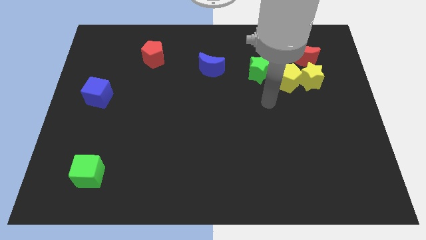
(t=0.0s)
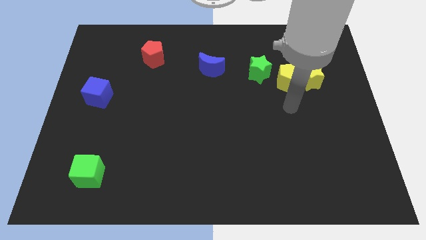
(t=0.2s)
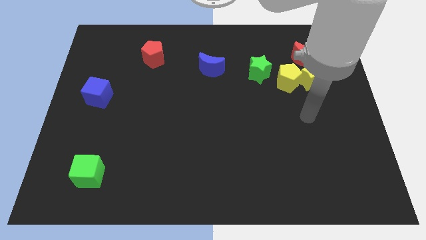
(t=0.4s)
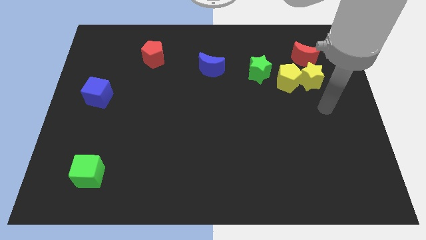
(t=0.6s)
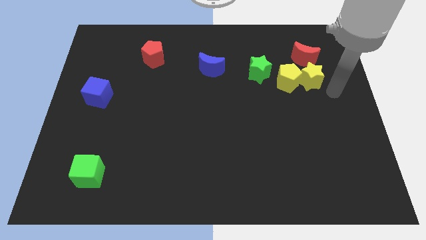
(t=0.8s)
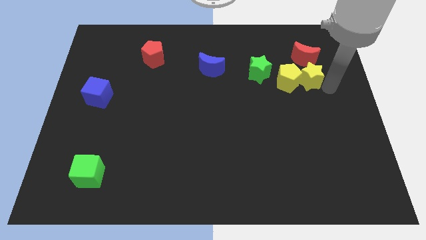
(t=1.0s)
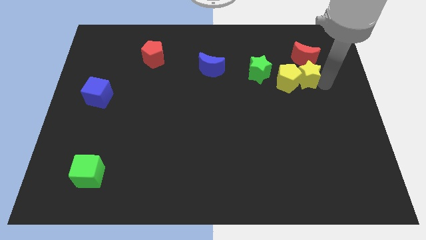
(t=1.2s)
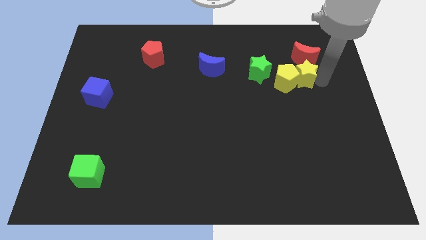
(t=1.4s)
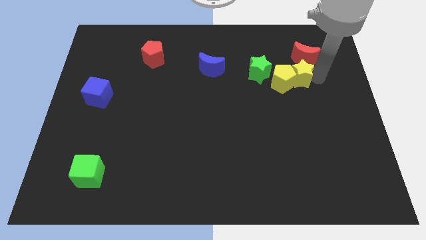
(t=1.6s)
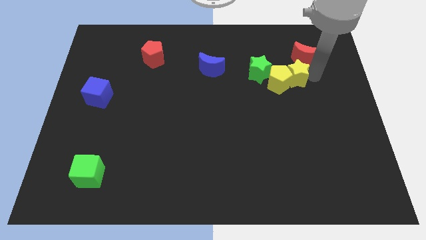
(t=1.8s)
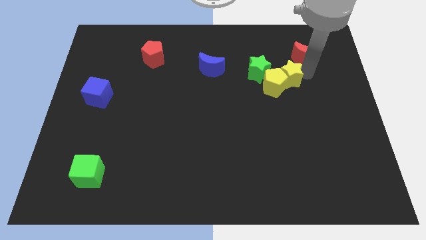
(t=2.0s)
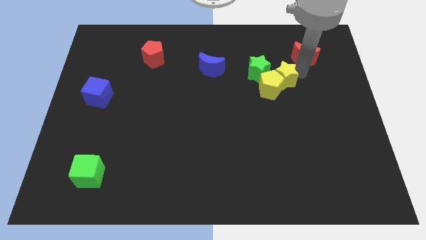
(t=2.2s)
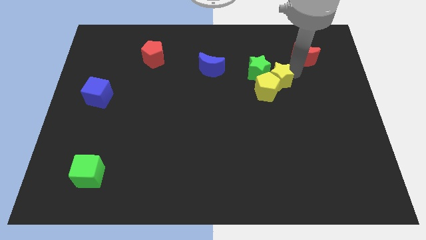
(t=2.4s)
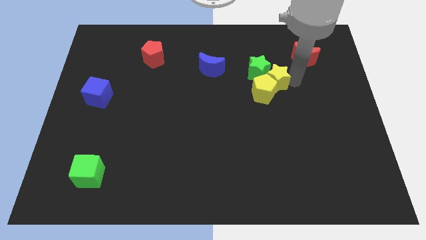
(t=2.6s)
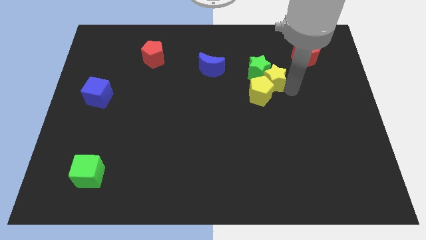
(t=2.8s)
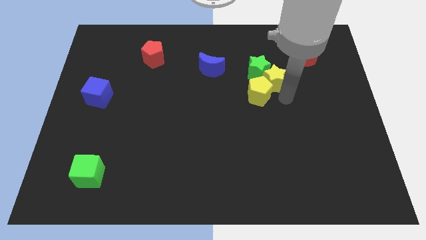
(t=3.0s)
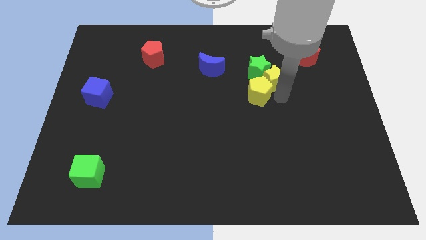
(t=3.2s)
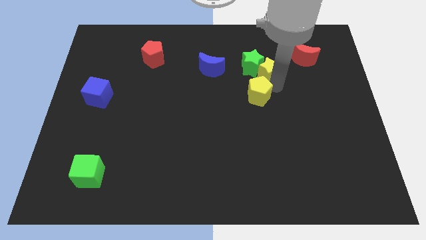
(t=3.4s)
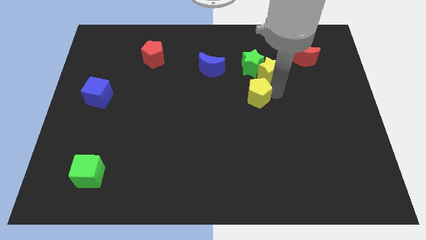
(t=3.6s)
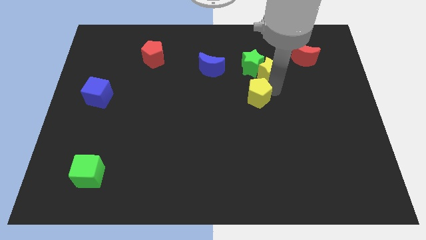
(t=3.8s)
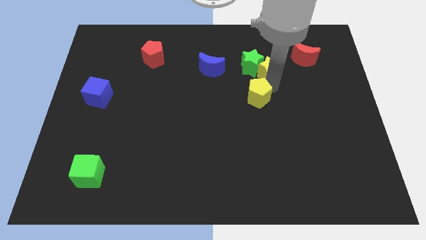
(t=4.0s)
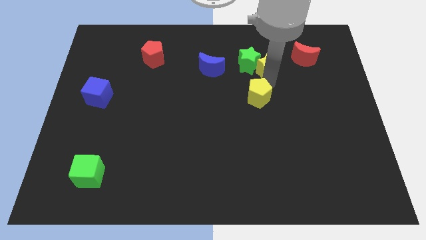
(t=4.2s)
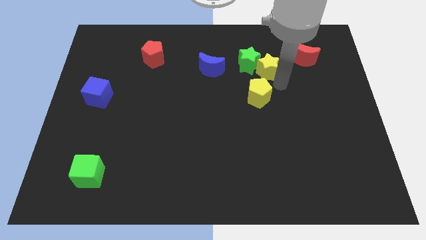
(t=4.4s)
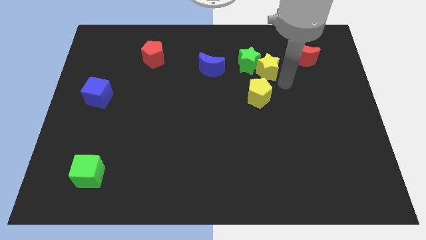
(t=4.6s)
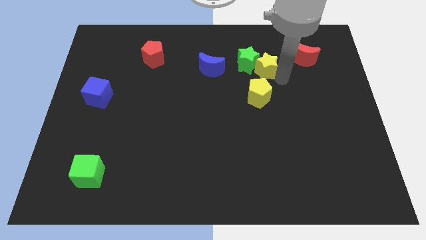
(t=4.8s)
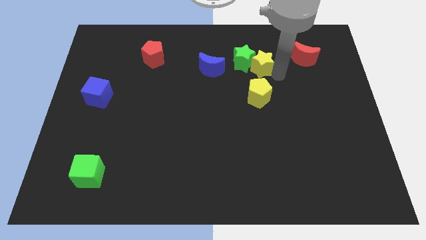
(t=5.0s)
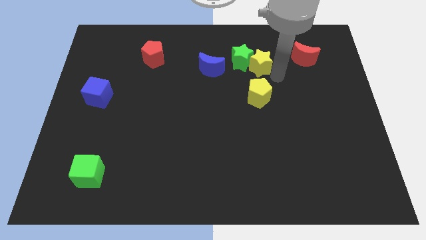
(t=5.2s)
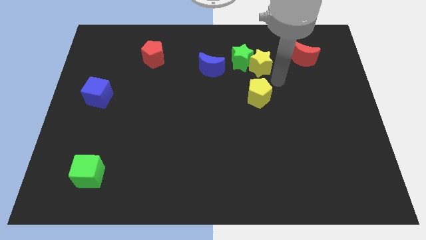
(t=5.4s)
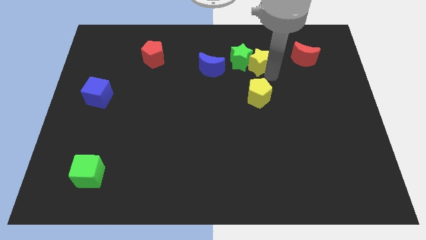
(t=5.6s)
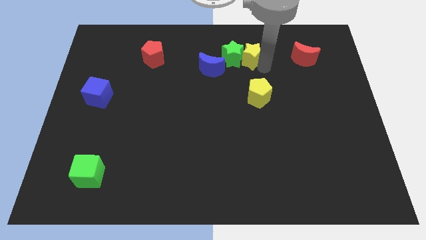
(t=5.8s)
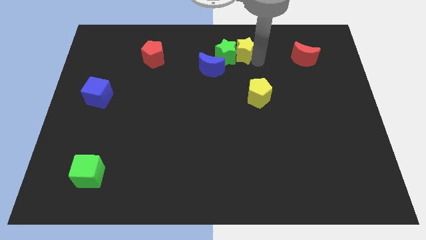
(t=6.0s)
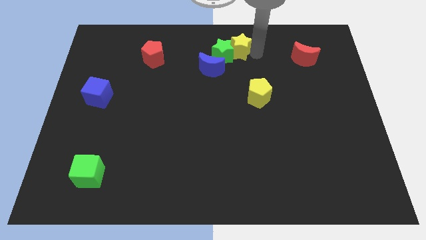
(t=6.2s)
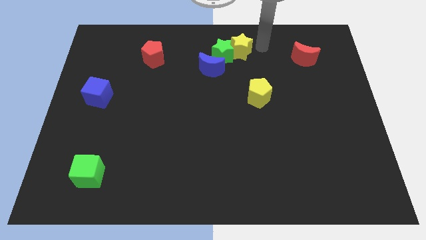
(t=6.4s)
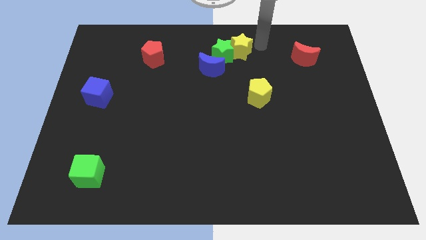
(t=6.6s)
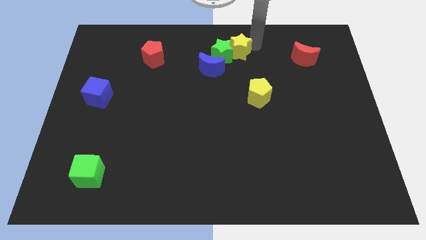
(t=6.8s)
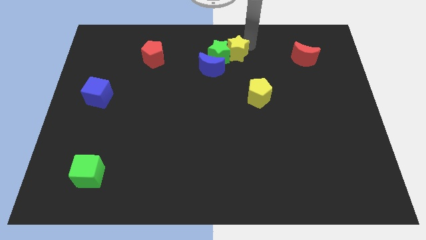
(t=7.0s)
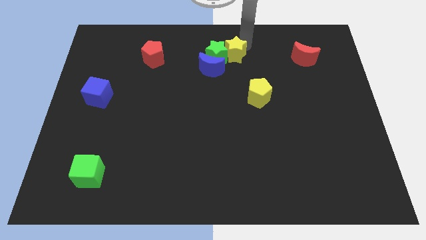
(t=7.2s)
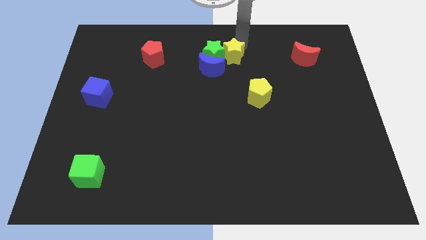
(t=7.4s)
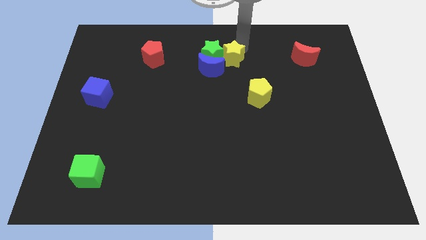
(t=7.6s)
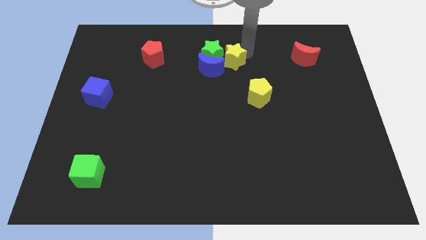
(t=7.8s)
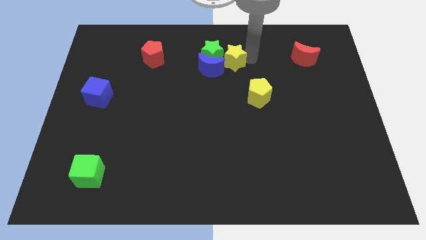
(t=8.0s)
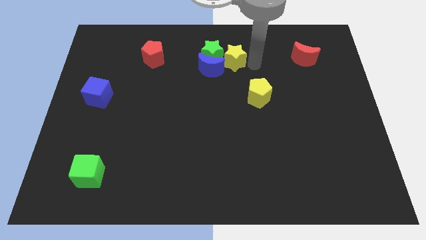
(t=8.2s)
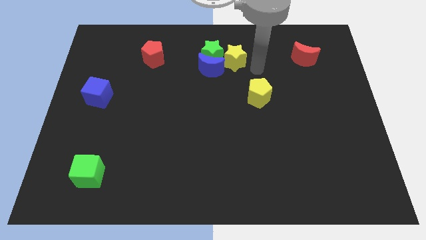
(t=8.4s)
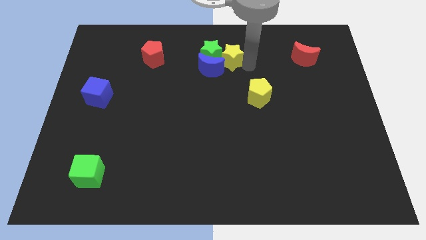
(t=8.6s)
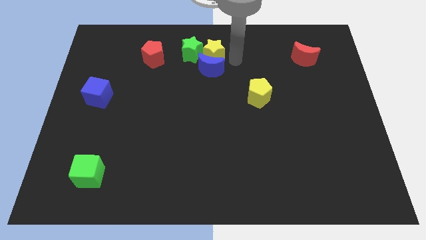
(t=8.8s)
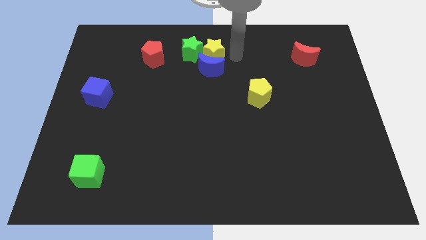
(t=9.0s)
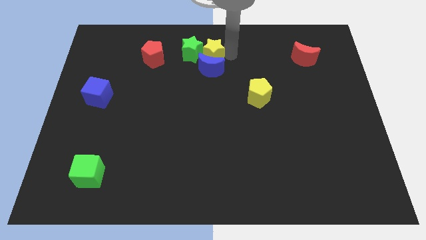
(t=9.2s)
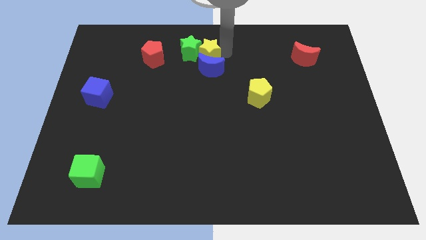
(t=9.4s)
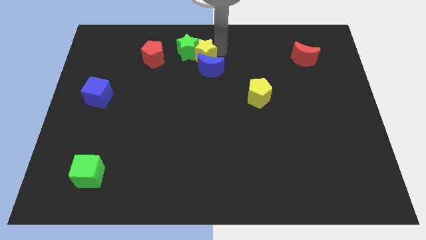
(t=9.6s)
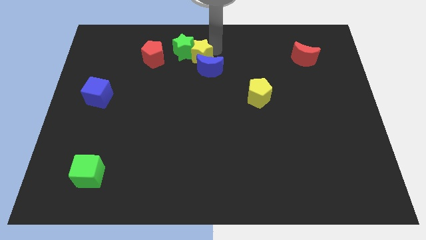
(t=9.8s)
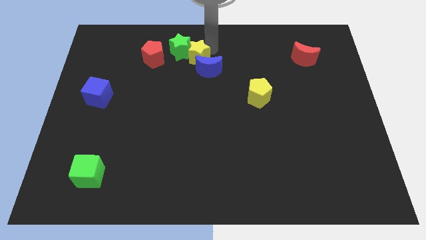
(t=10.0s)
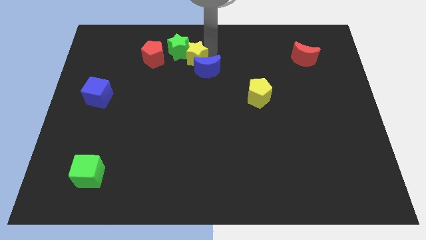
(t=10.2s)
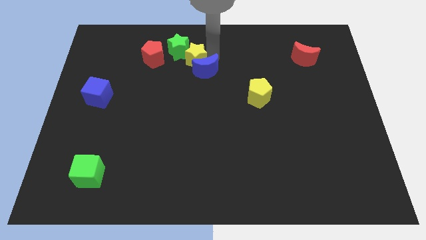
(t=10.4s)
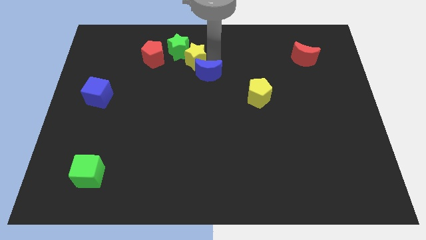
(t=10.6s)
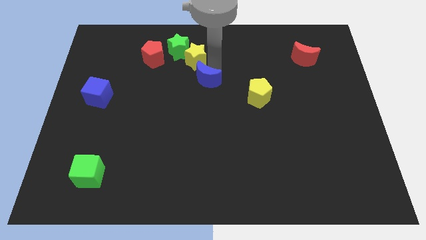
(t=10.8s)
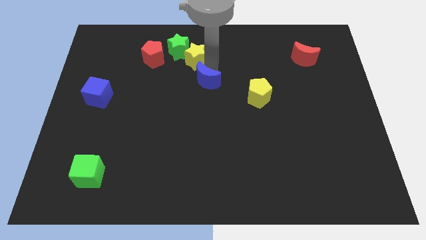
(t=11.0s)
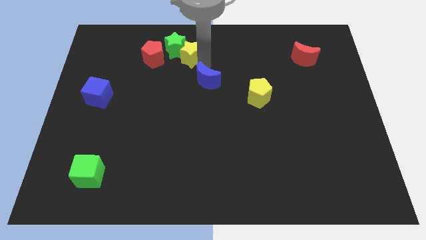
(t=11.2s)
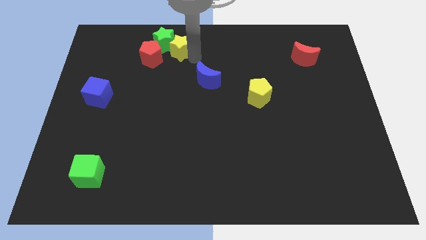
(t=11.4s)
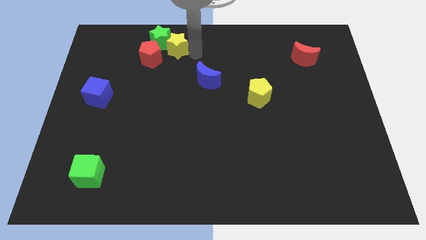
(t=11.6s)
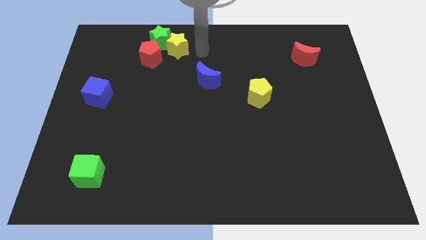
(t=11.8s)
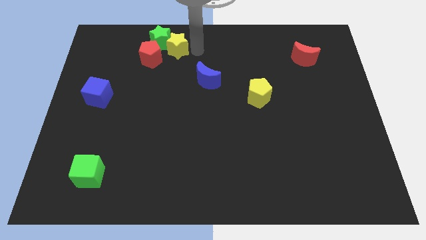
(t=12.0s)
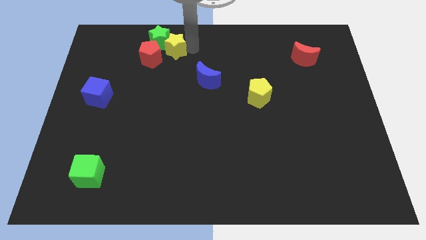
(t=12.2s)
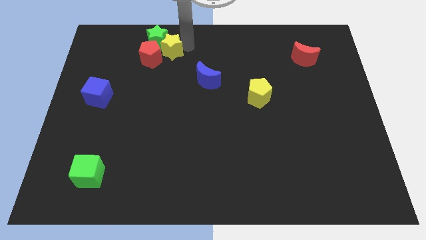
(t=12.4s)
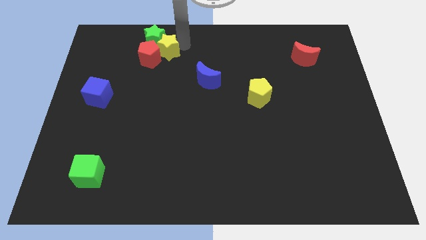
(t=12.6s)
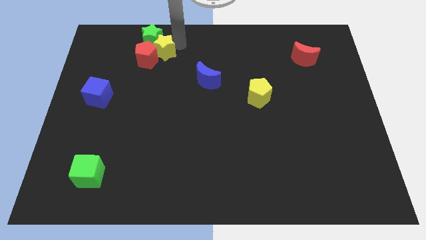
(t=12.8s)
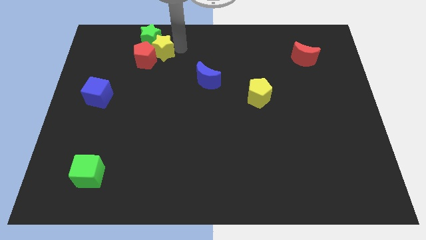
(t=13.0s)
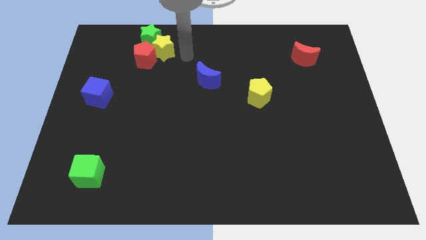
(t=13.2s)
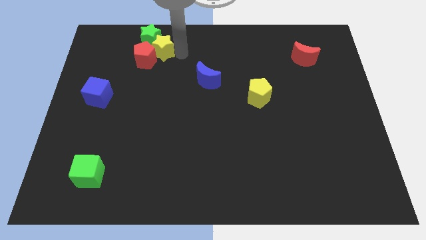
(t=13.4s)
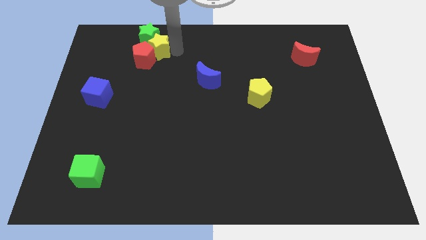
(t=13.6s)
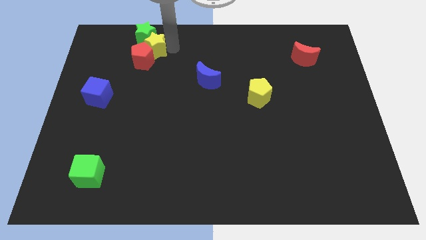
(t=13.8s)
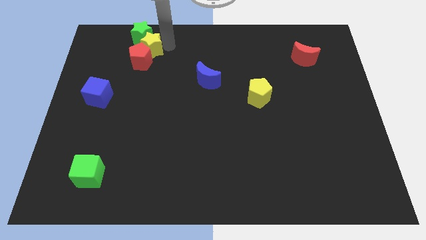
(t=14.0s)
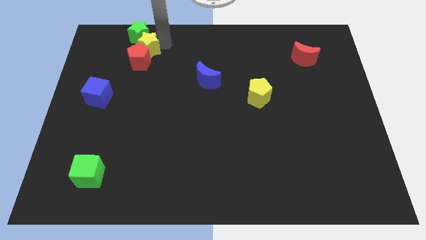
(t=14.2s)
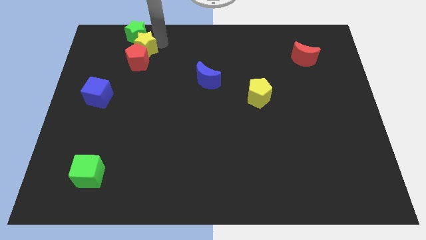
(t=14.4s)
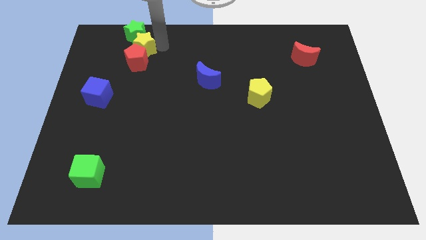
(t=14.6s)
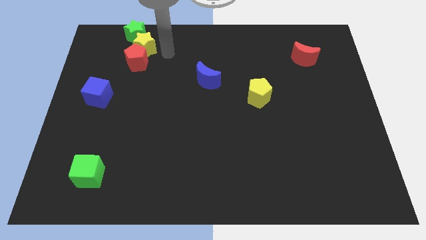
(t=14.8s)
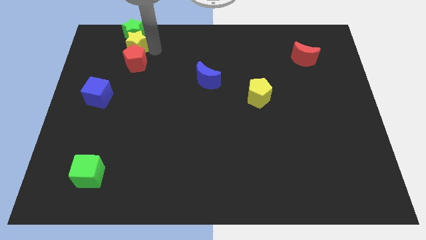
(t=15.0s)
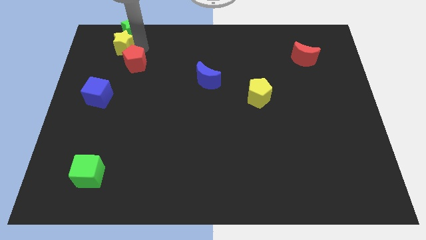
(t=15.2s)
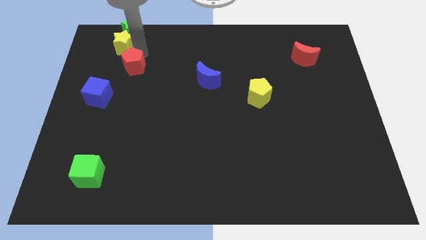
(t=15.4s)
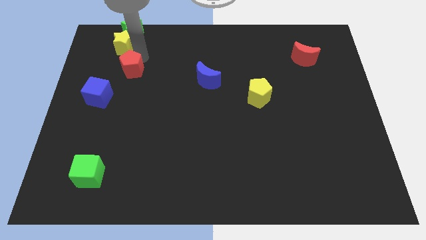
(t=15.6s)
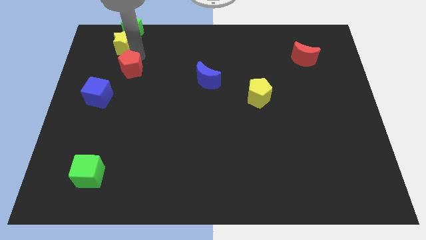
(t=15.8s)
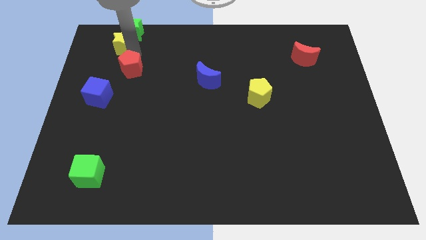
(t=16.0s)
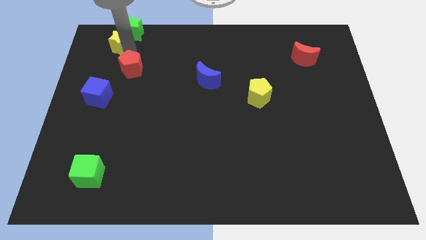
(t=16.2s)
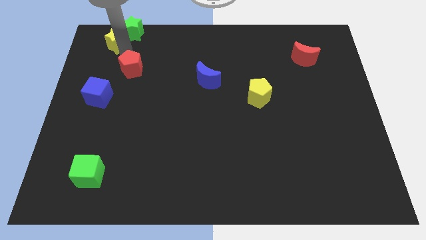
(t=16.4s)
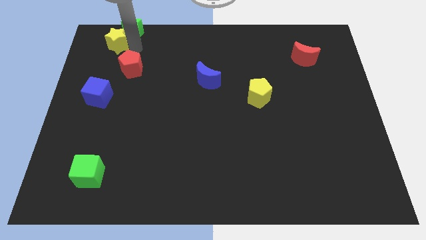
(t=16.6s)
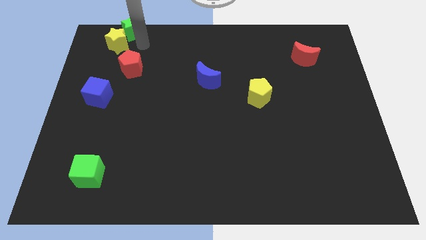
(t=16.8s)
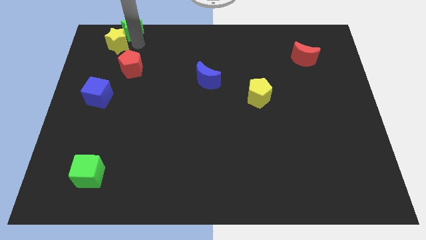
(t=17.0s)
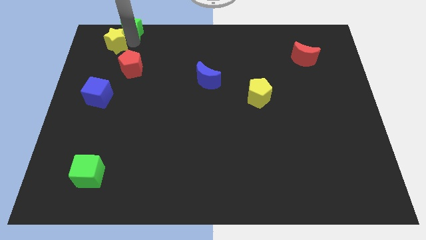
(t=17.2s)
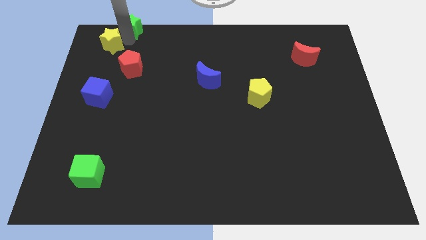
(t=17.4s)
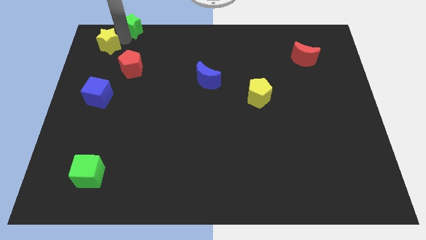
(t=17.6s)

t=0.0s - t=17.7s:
move the yellow star to the top left corner
